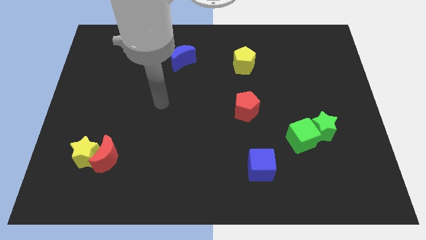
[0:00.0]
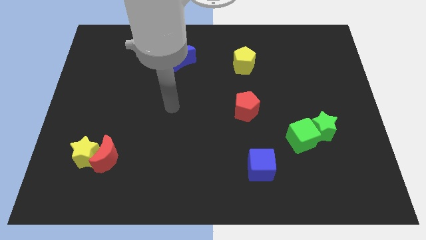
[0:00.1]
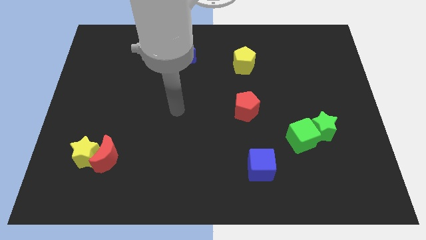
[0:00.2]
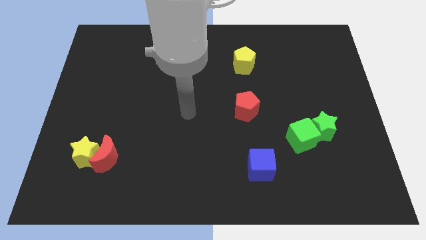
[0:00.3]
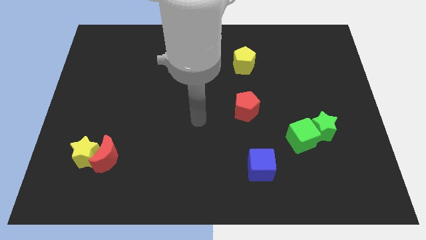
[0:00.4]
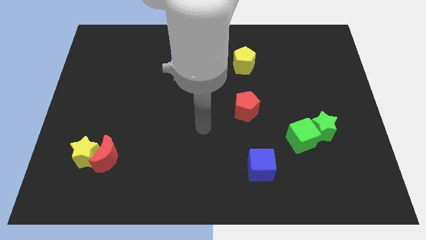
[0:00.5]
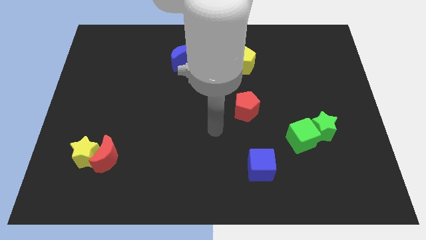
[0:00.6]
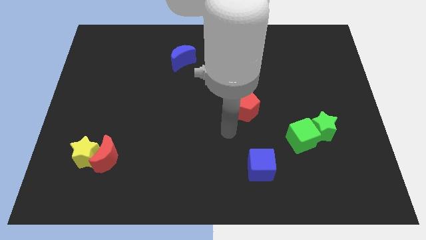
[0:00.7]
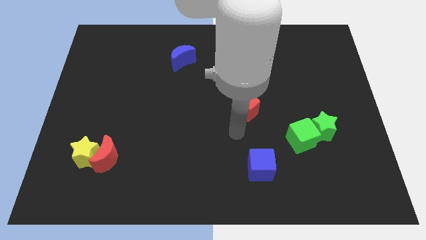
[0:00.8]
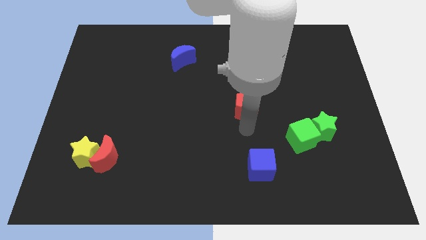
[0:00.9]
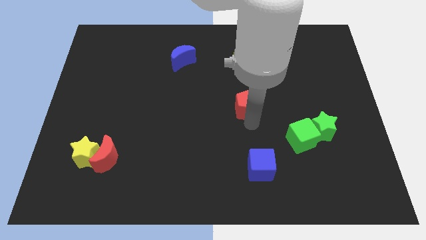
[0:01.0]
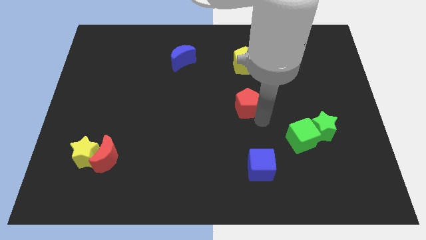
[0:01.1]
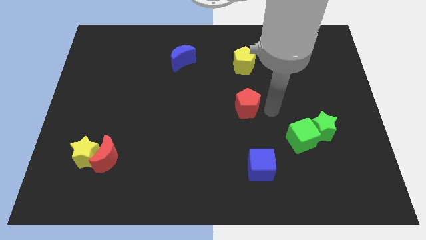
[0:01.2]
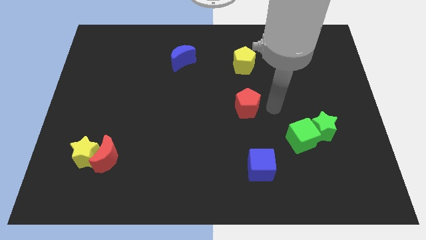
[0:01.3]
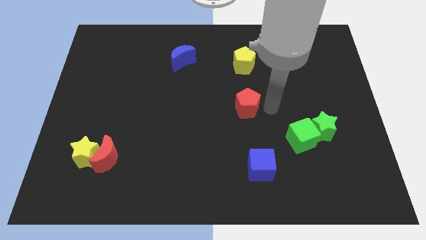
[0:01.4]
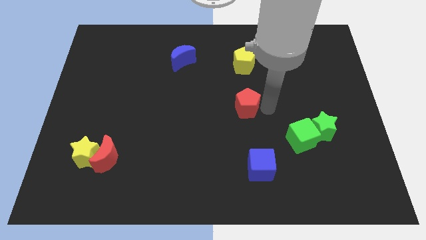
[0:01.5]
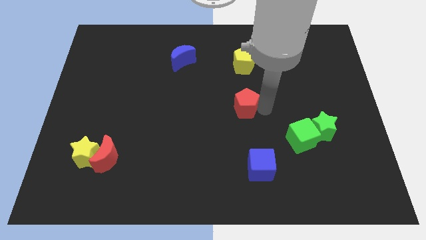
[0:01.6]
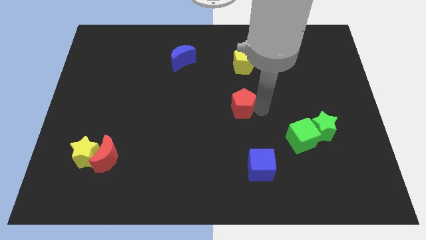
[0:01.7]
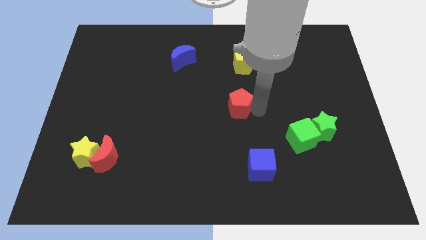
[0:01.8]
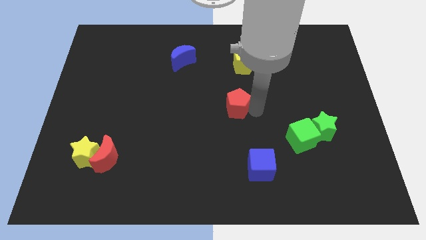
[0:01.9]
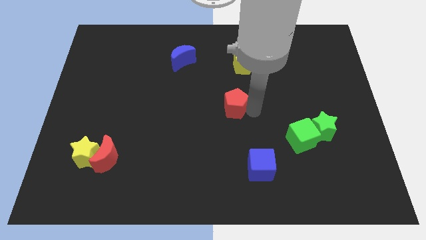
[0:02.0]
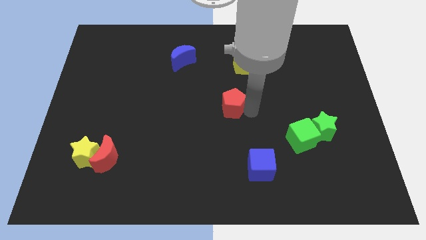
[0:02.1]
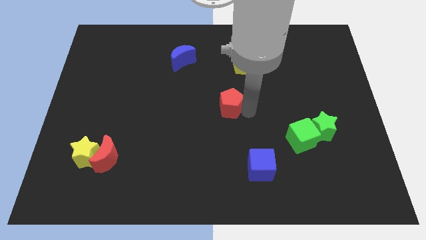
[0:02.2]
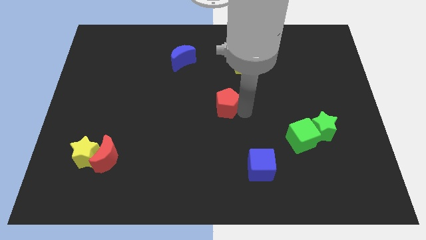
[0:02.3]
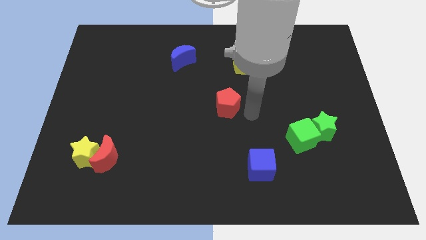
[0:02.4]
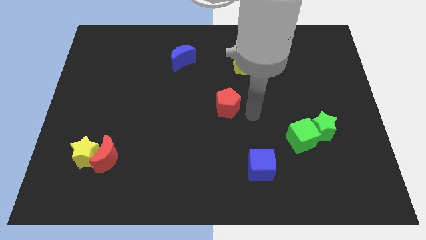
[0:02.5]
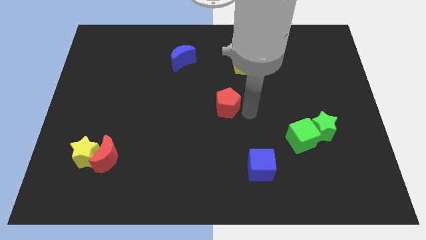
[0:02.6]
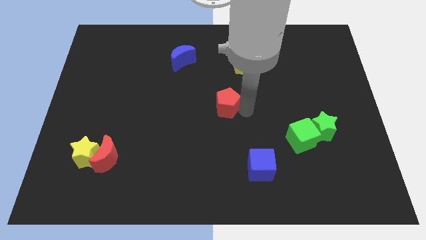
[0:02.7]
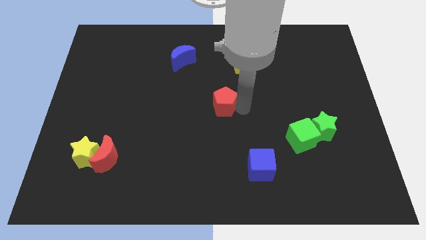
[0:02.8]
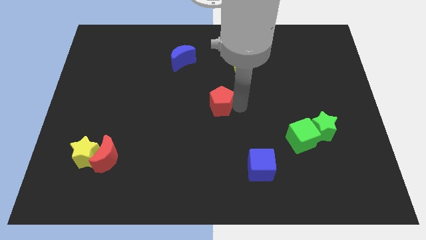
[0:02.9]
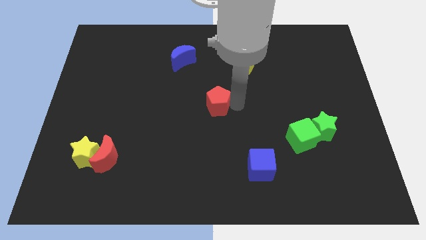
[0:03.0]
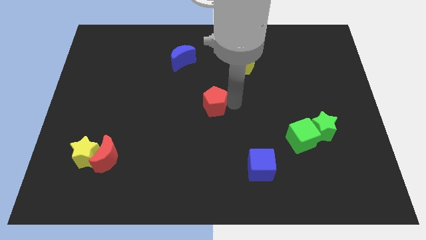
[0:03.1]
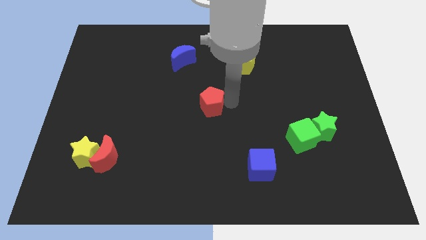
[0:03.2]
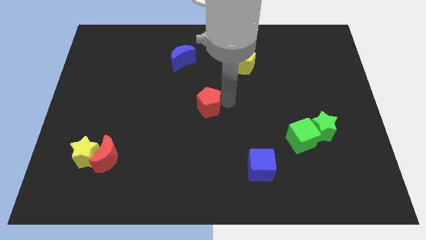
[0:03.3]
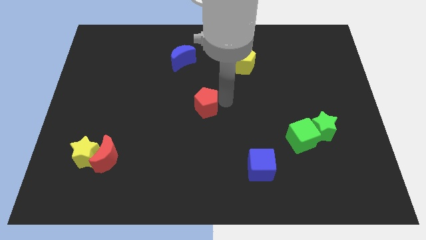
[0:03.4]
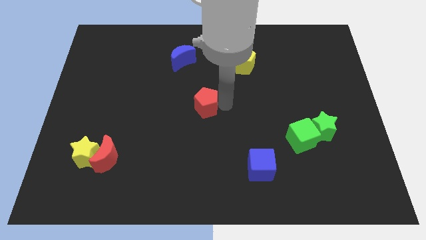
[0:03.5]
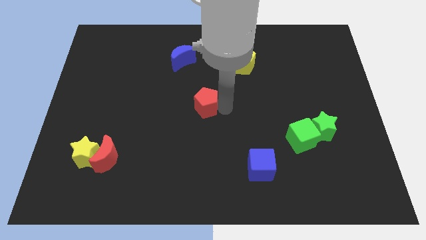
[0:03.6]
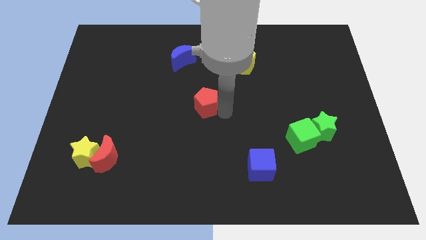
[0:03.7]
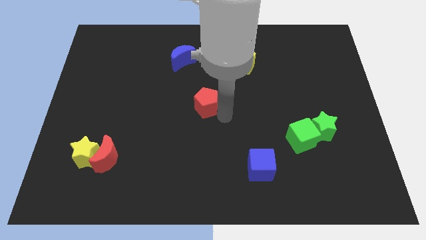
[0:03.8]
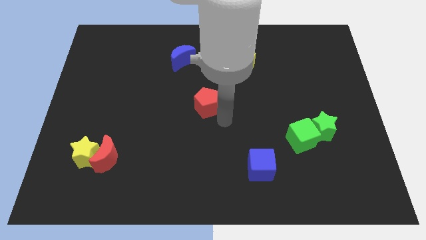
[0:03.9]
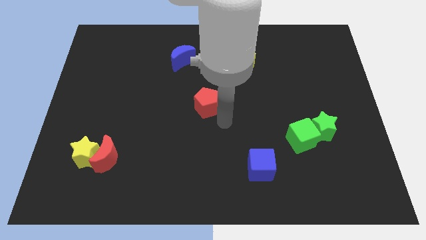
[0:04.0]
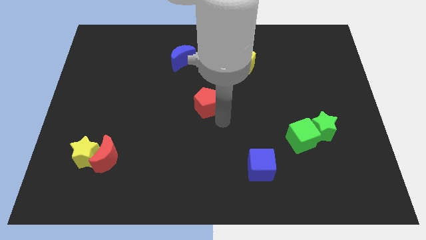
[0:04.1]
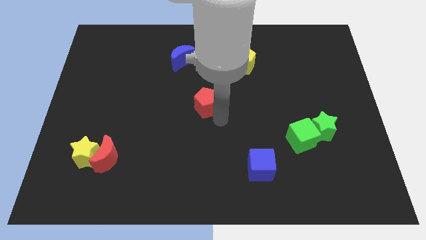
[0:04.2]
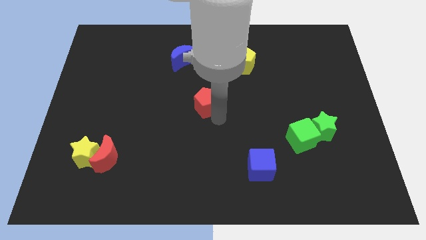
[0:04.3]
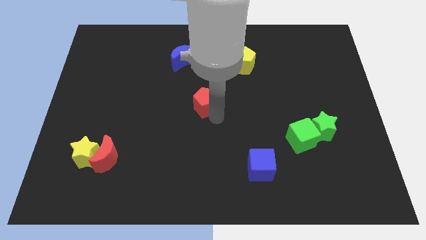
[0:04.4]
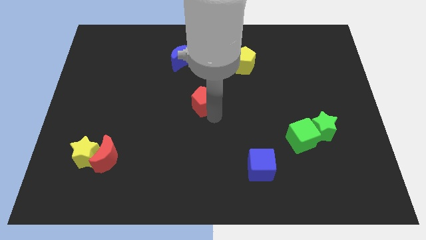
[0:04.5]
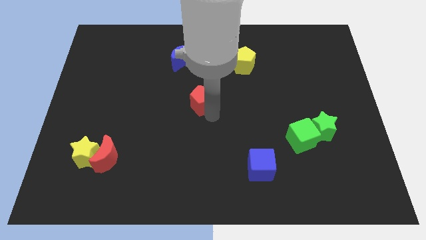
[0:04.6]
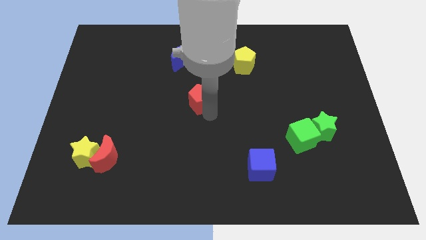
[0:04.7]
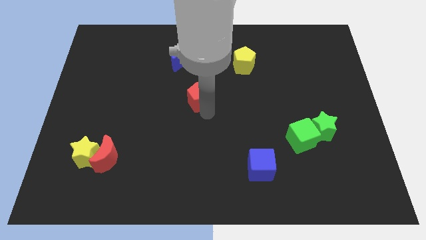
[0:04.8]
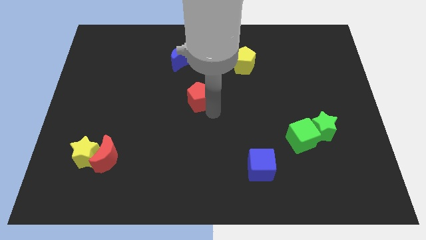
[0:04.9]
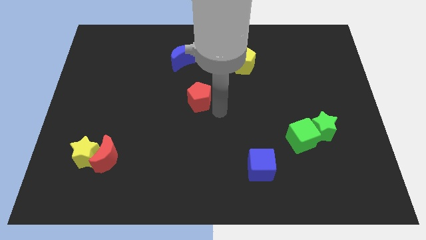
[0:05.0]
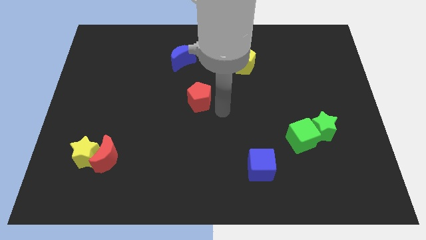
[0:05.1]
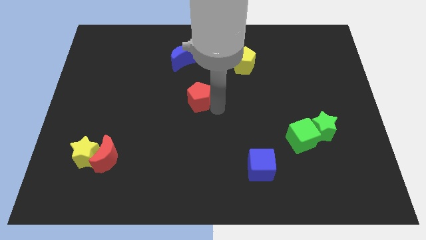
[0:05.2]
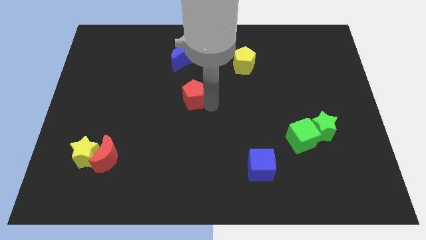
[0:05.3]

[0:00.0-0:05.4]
put the red pentagon to the bottom side of the blue moon

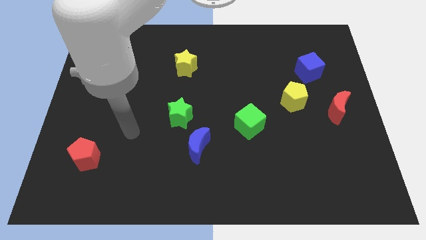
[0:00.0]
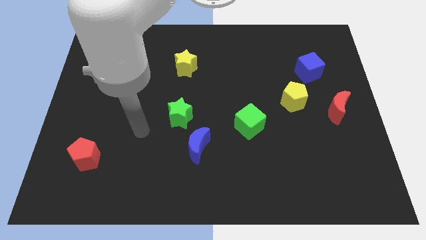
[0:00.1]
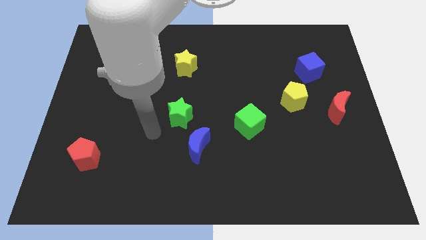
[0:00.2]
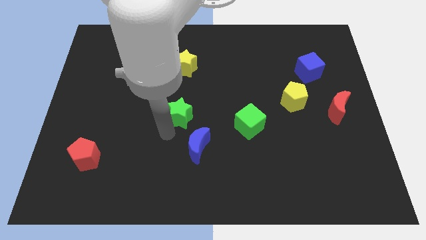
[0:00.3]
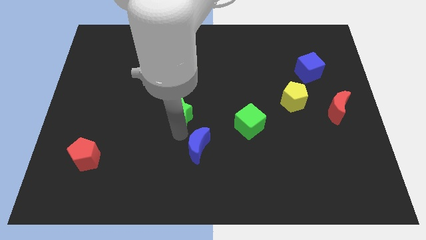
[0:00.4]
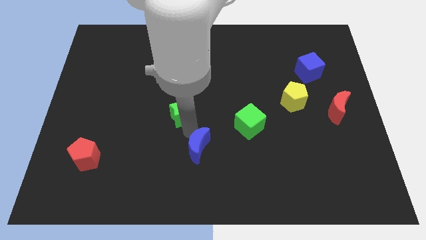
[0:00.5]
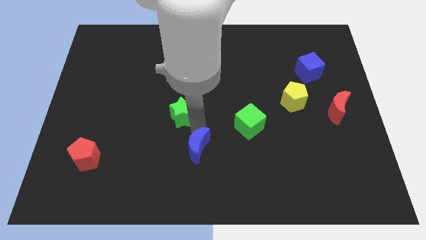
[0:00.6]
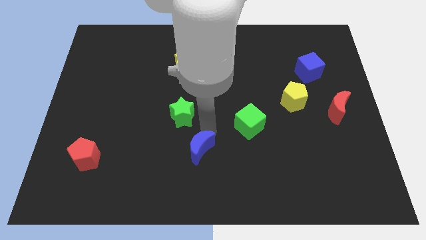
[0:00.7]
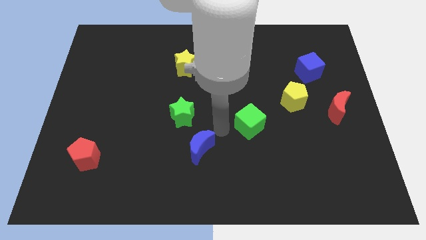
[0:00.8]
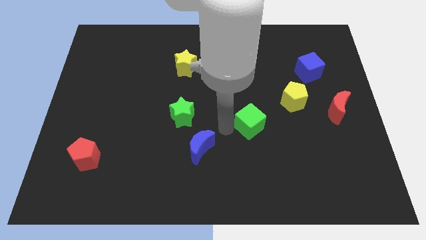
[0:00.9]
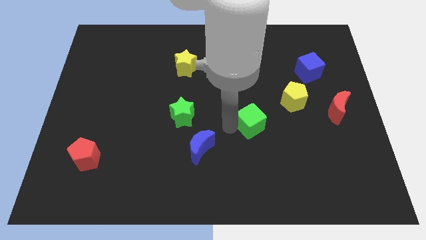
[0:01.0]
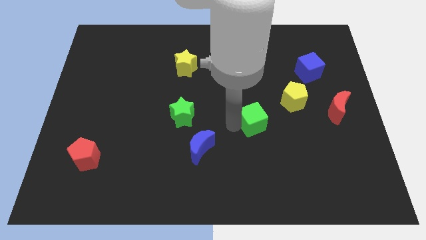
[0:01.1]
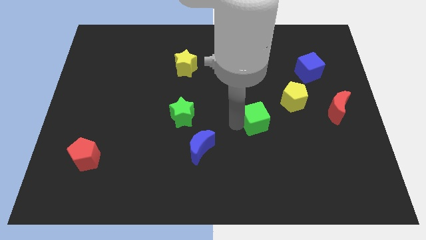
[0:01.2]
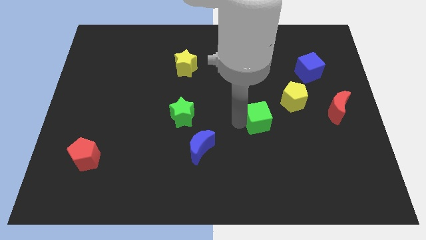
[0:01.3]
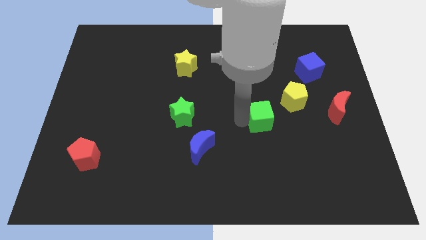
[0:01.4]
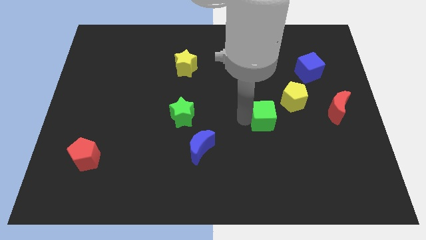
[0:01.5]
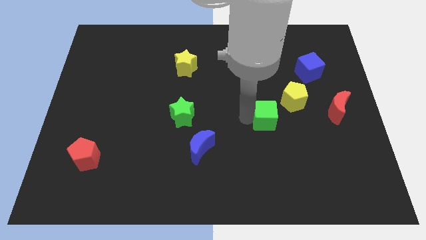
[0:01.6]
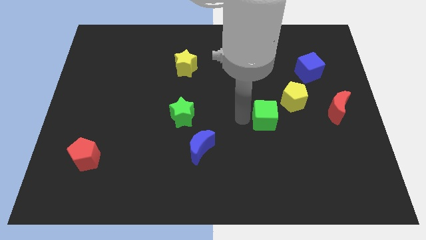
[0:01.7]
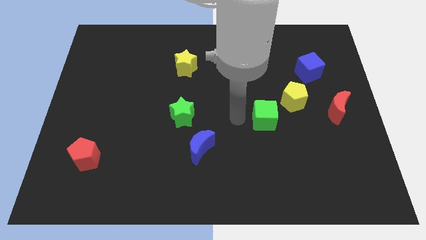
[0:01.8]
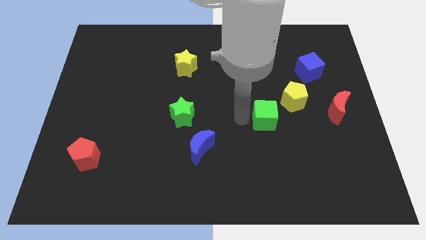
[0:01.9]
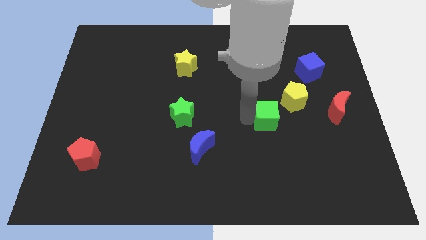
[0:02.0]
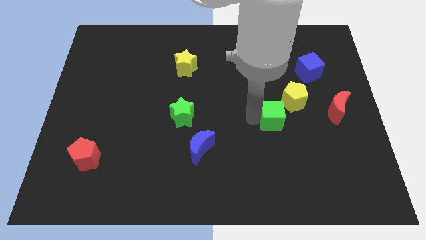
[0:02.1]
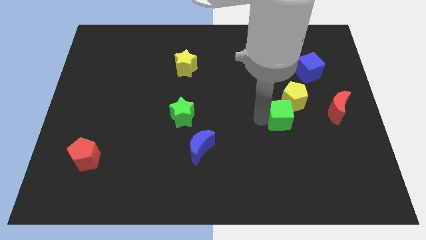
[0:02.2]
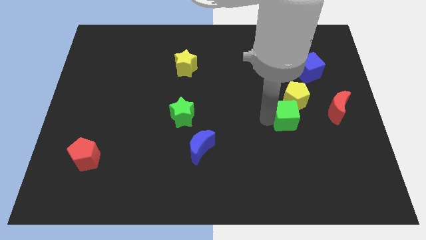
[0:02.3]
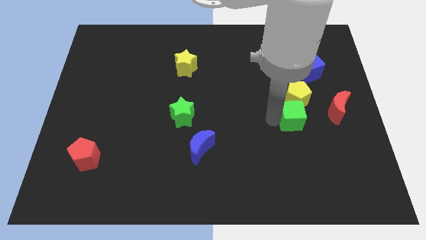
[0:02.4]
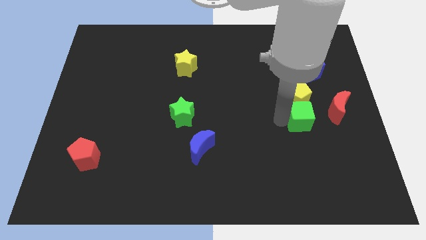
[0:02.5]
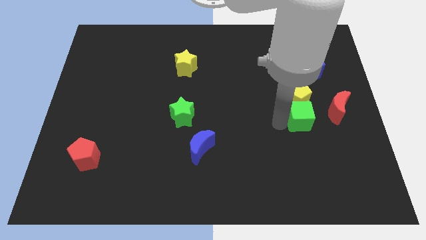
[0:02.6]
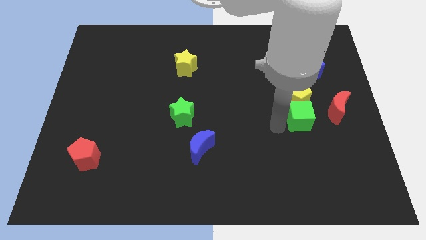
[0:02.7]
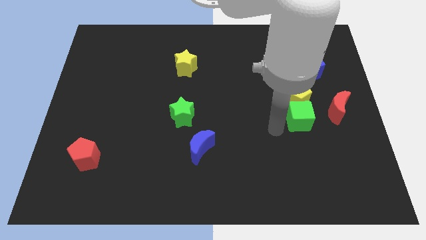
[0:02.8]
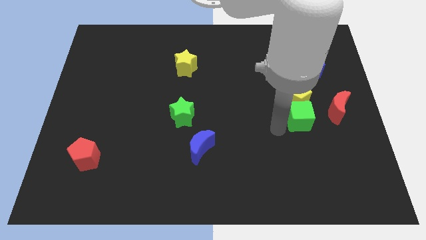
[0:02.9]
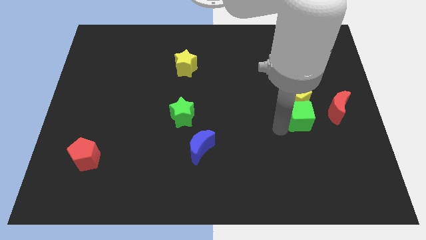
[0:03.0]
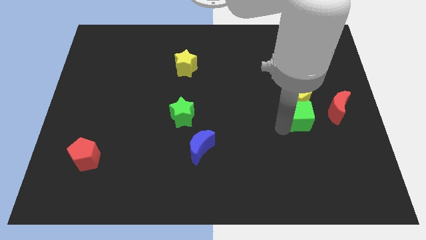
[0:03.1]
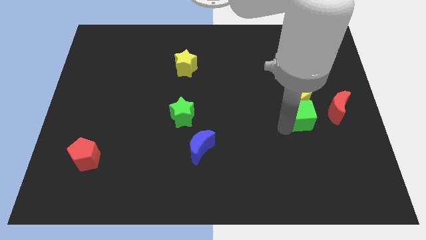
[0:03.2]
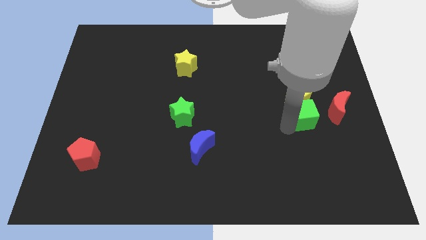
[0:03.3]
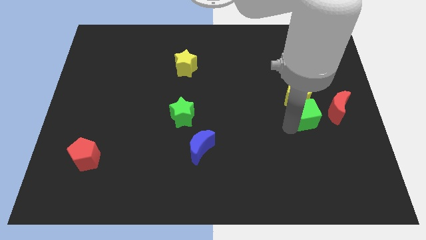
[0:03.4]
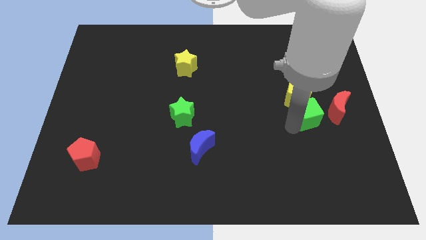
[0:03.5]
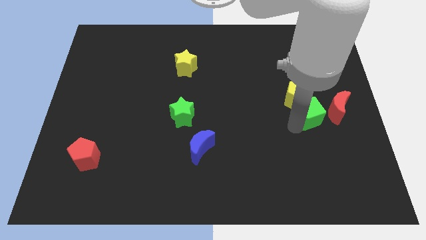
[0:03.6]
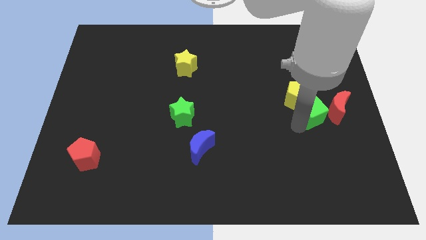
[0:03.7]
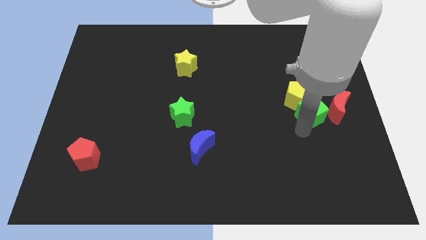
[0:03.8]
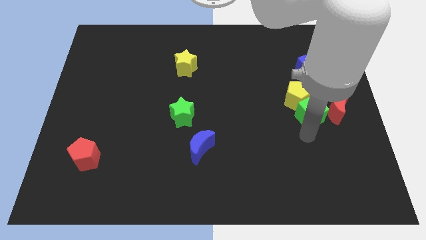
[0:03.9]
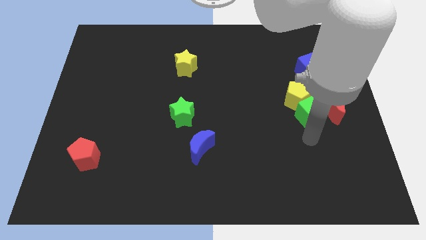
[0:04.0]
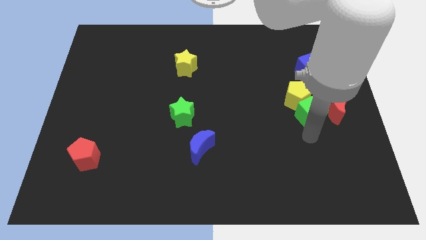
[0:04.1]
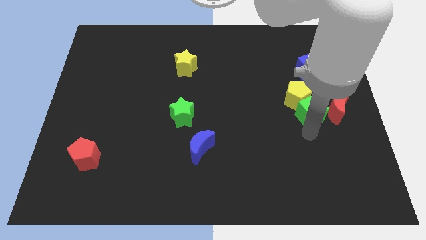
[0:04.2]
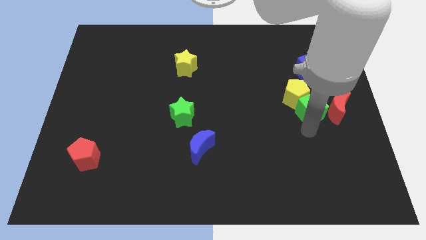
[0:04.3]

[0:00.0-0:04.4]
push the green cube to the top left side of the red moon
